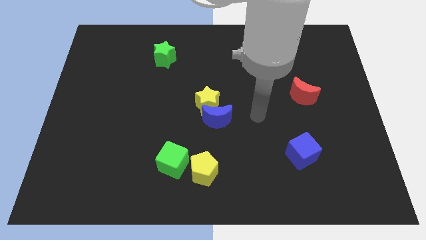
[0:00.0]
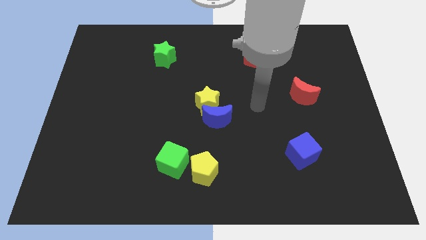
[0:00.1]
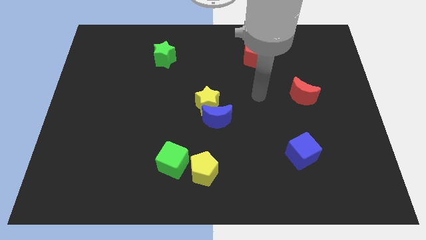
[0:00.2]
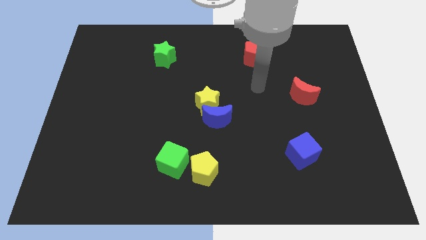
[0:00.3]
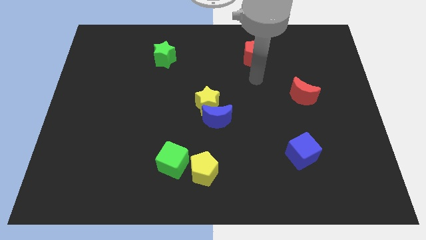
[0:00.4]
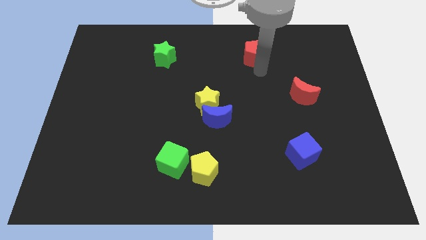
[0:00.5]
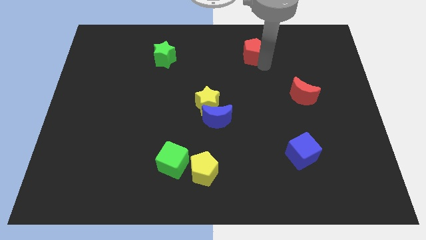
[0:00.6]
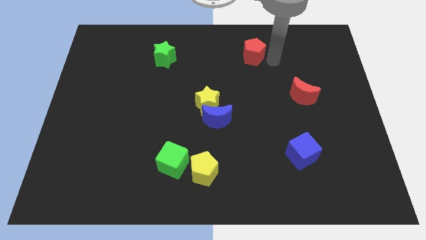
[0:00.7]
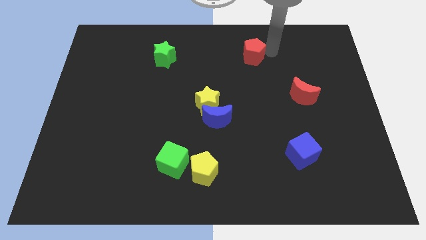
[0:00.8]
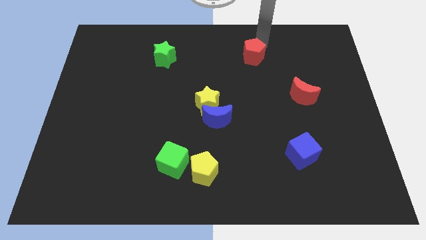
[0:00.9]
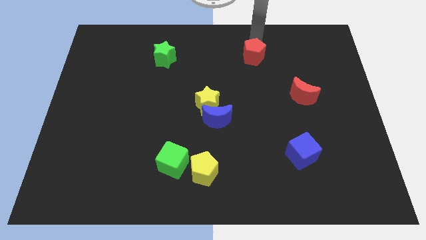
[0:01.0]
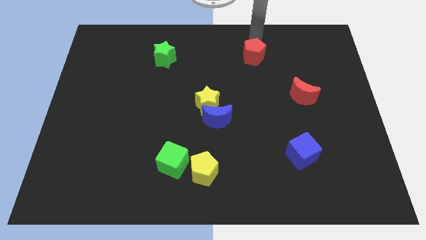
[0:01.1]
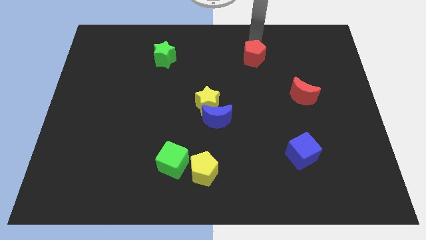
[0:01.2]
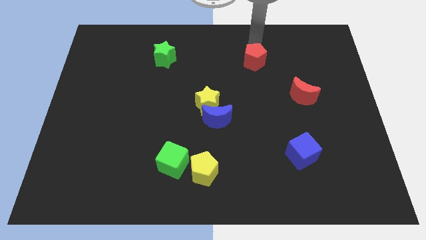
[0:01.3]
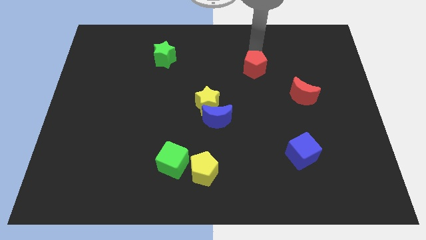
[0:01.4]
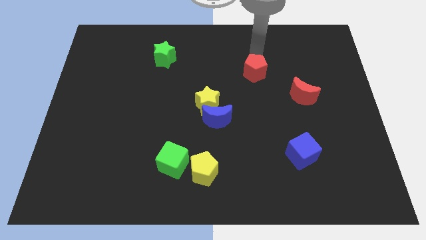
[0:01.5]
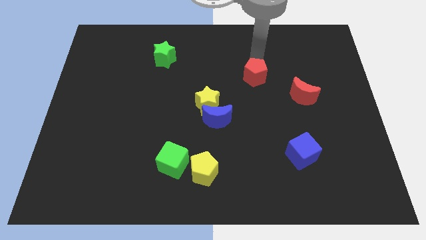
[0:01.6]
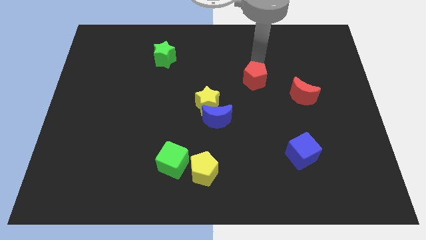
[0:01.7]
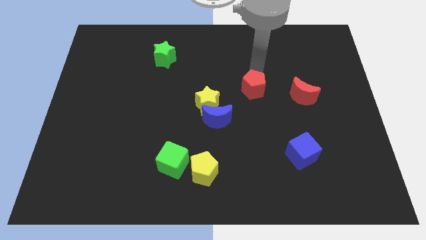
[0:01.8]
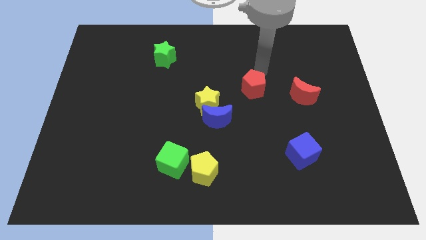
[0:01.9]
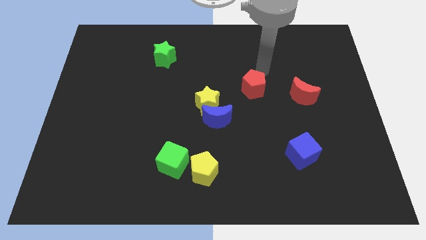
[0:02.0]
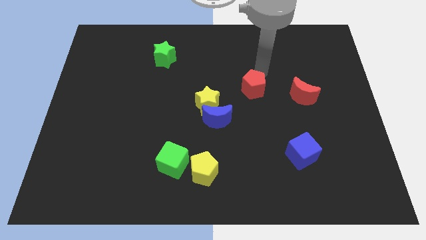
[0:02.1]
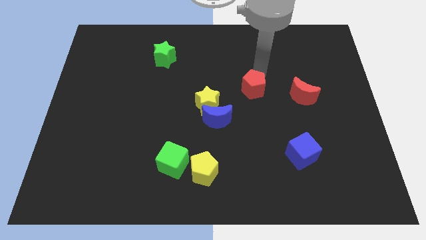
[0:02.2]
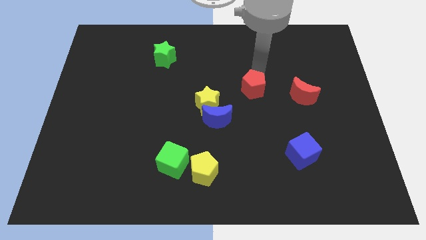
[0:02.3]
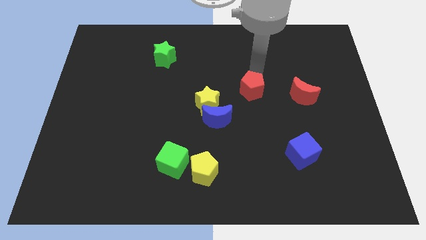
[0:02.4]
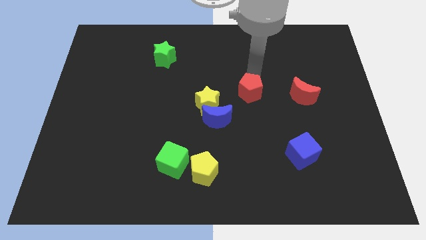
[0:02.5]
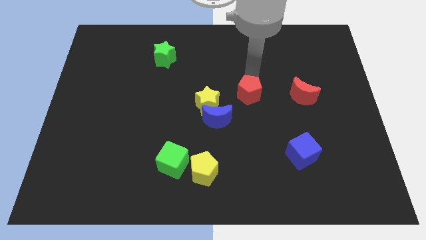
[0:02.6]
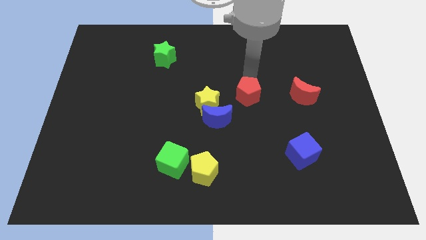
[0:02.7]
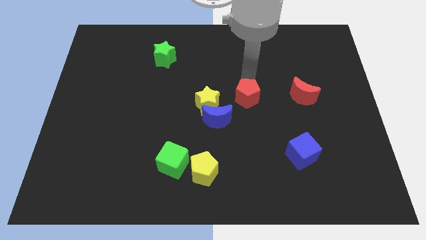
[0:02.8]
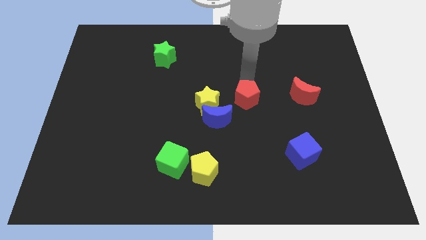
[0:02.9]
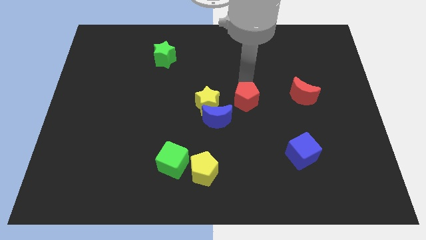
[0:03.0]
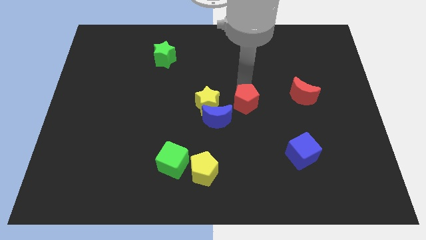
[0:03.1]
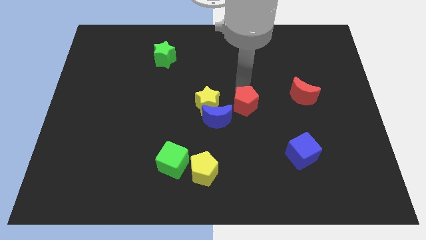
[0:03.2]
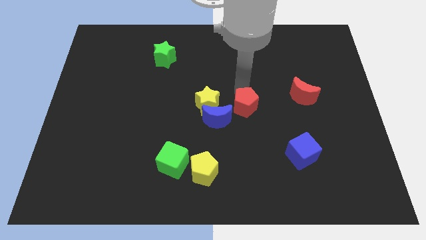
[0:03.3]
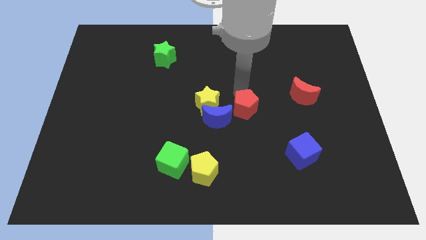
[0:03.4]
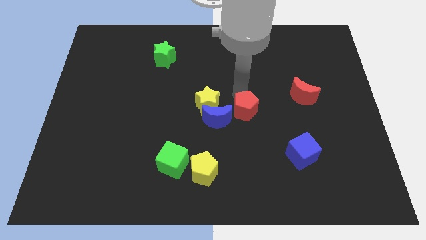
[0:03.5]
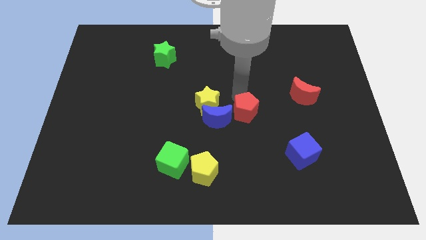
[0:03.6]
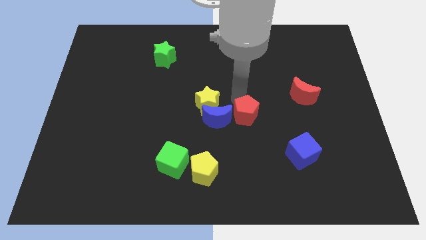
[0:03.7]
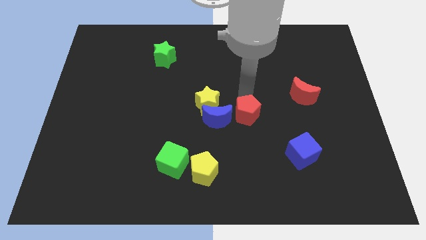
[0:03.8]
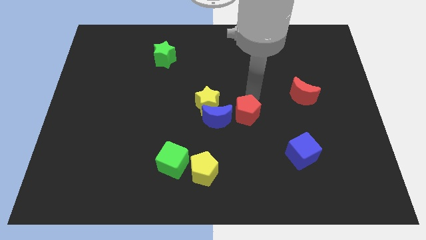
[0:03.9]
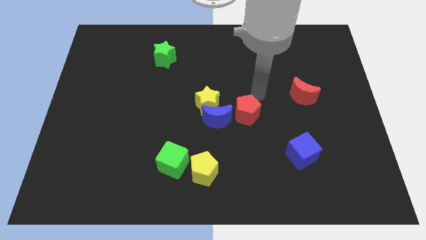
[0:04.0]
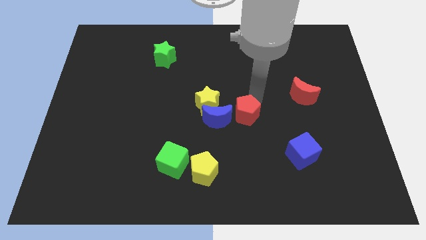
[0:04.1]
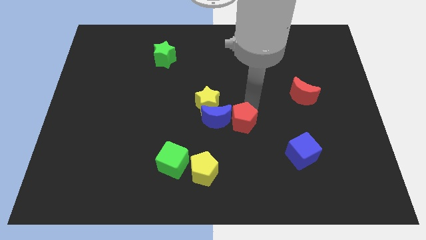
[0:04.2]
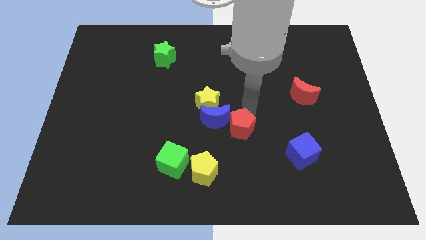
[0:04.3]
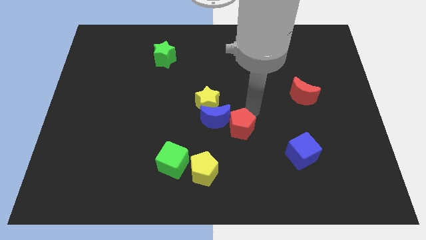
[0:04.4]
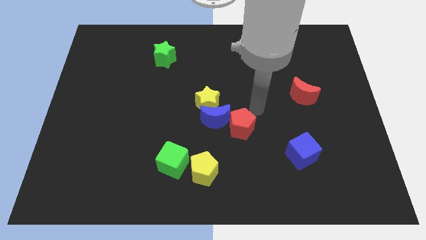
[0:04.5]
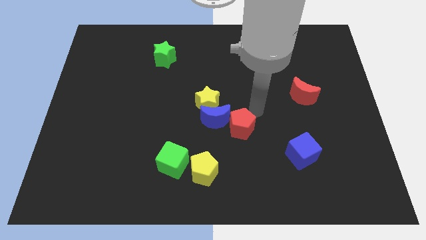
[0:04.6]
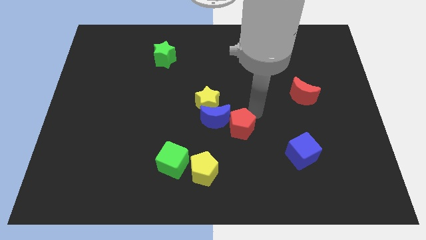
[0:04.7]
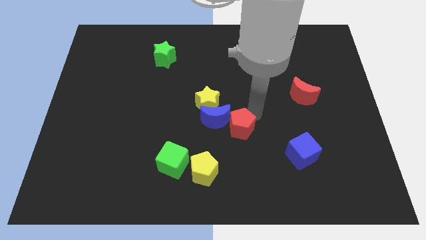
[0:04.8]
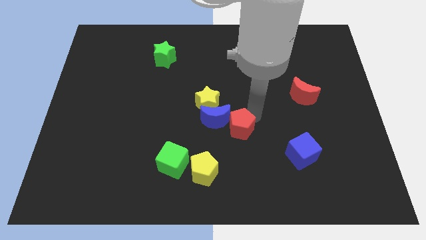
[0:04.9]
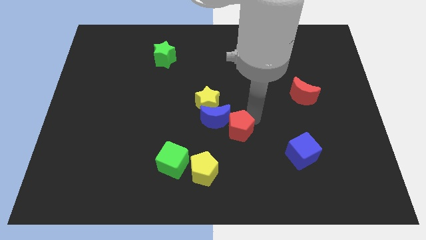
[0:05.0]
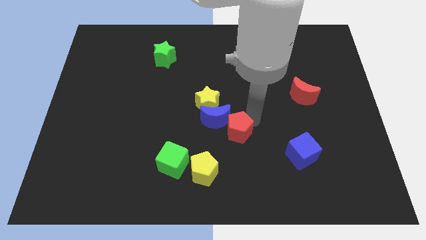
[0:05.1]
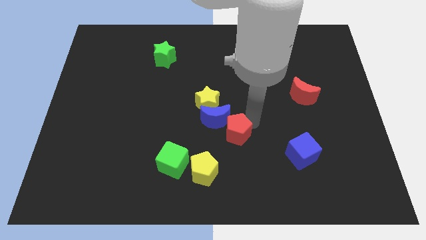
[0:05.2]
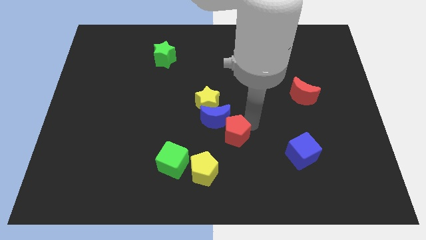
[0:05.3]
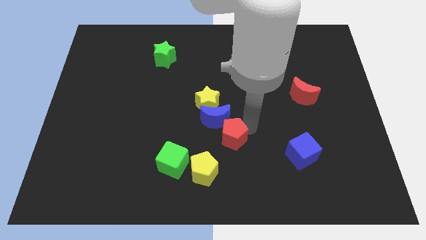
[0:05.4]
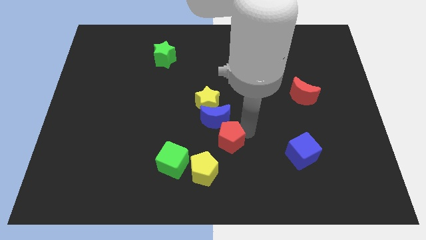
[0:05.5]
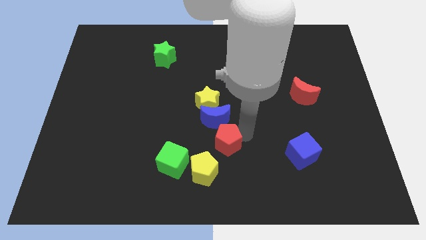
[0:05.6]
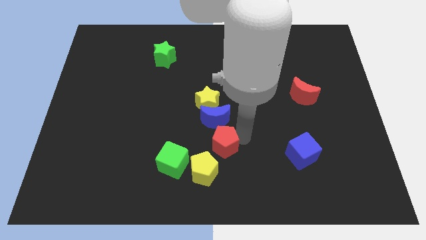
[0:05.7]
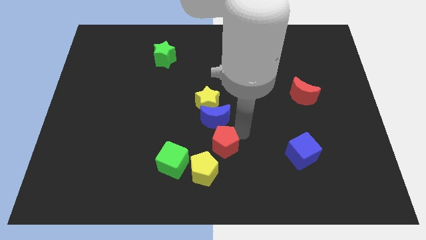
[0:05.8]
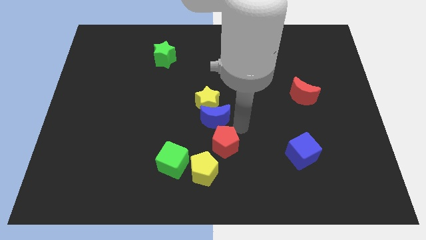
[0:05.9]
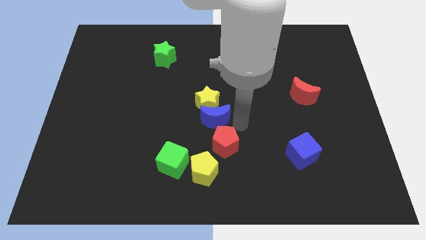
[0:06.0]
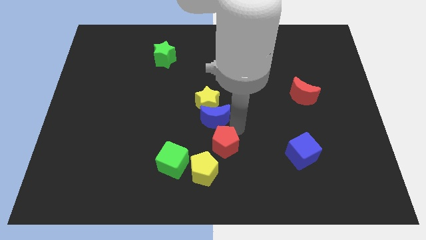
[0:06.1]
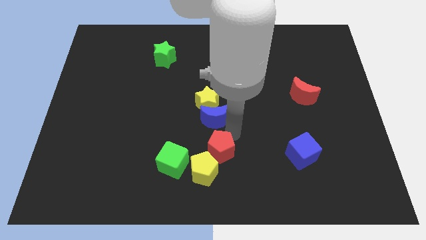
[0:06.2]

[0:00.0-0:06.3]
push the red pentagon next to the yellow pentagon

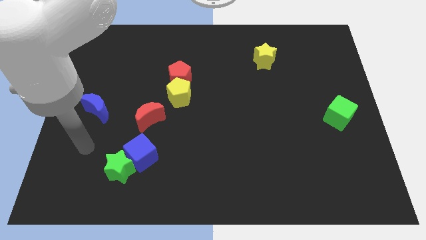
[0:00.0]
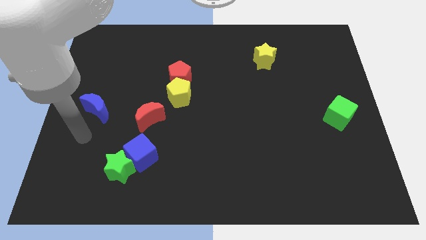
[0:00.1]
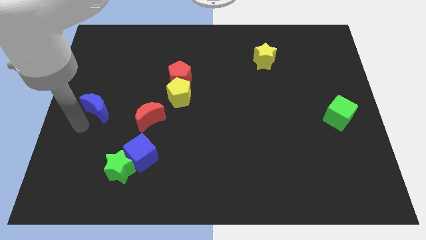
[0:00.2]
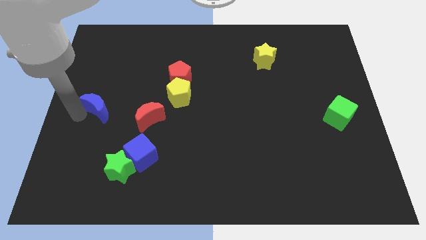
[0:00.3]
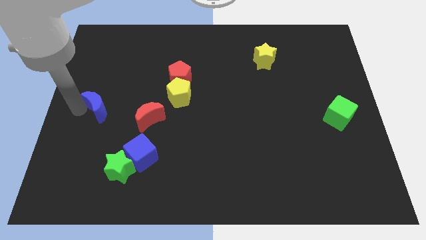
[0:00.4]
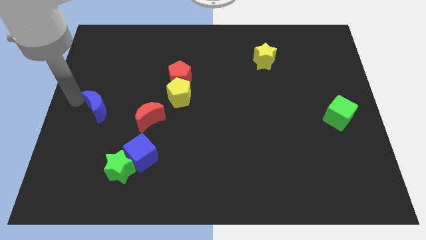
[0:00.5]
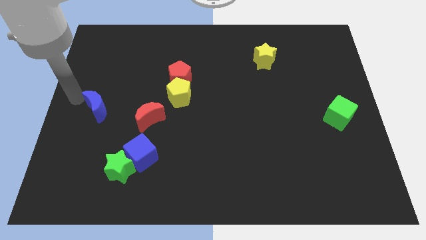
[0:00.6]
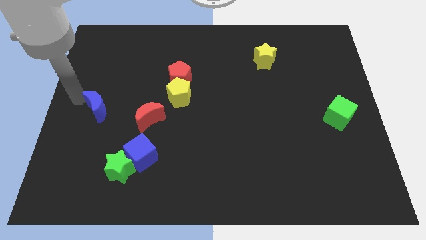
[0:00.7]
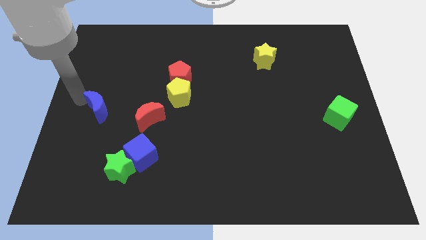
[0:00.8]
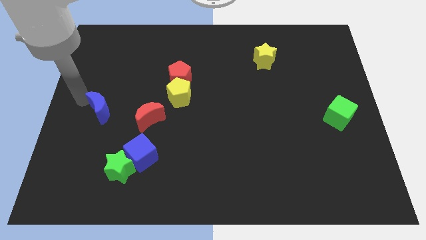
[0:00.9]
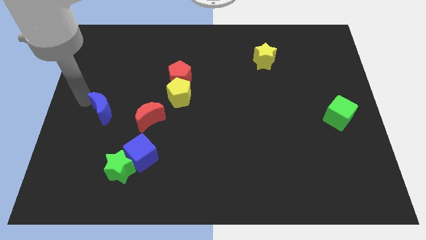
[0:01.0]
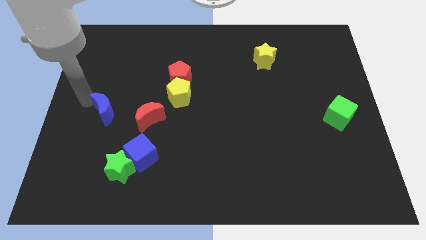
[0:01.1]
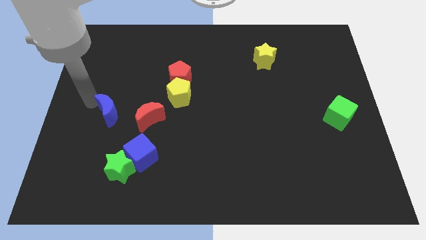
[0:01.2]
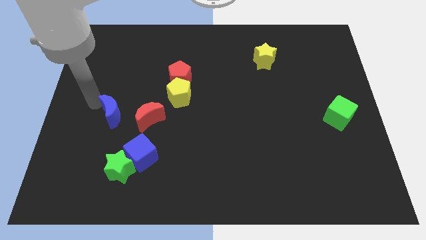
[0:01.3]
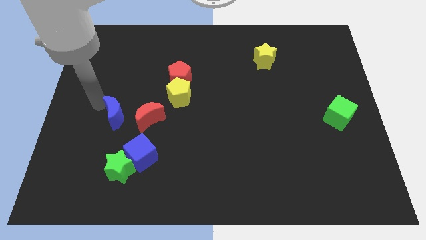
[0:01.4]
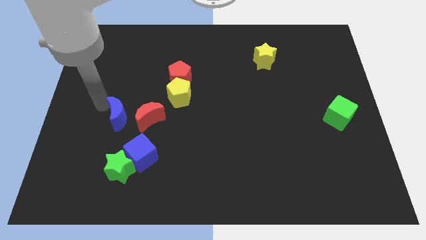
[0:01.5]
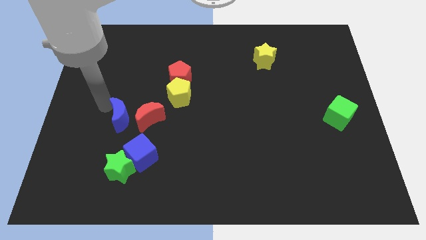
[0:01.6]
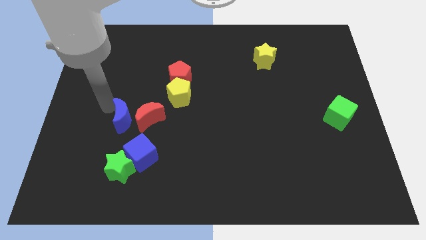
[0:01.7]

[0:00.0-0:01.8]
move the blue moon close to the red moon
